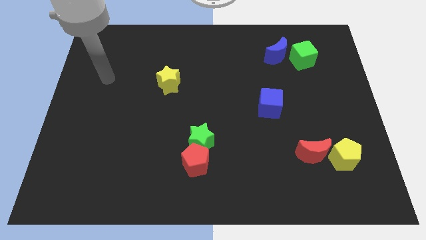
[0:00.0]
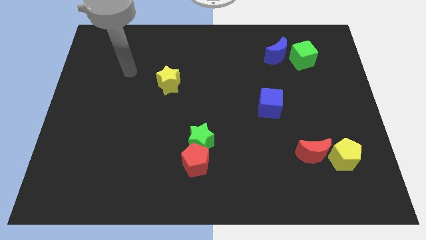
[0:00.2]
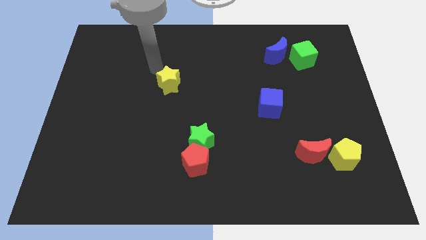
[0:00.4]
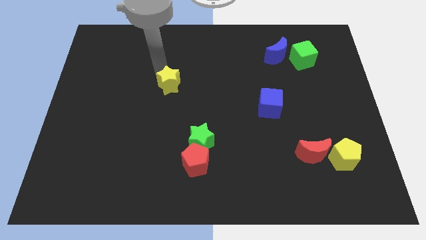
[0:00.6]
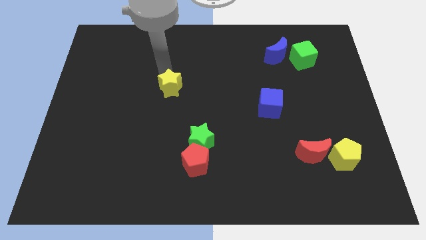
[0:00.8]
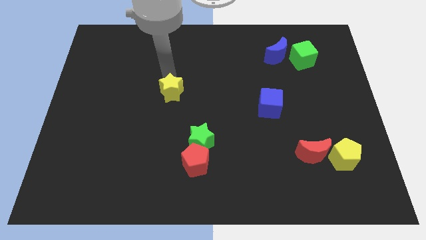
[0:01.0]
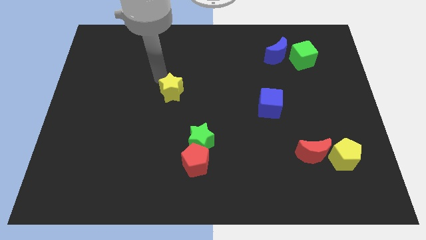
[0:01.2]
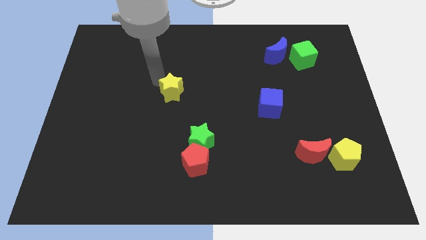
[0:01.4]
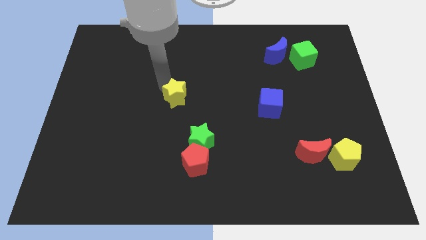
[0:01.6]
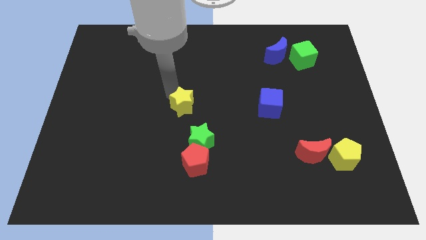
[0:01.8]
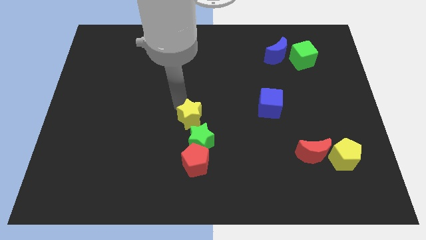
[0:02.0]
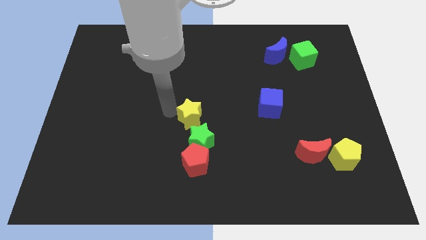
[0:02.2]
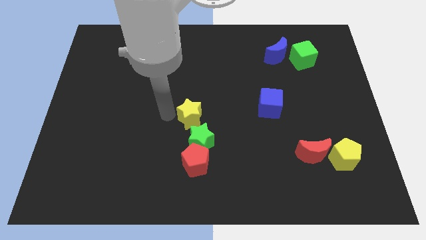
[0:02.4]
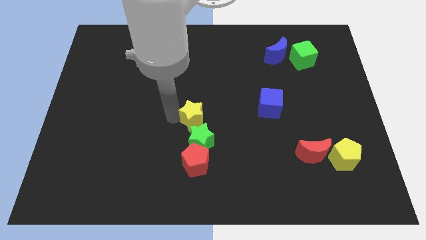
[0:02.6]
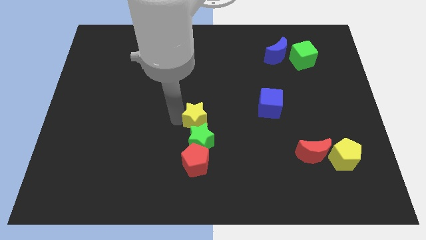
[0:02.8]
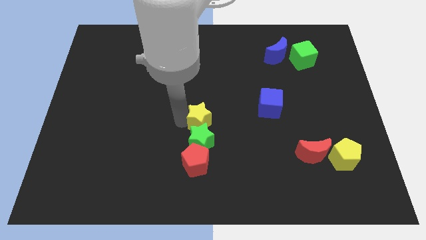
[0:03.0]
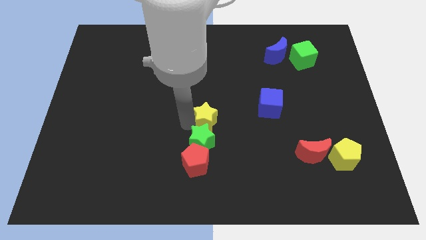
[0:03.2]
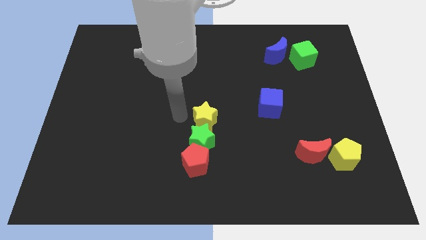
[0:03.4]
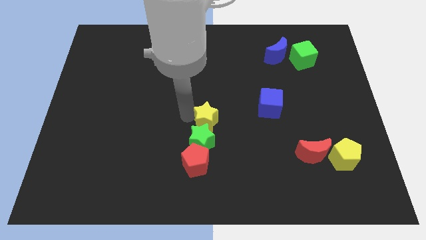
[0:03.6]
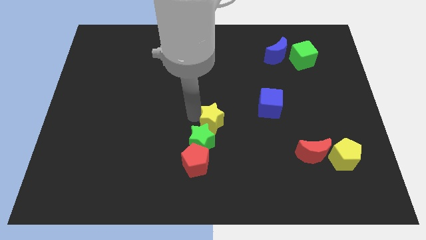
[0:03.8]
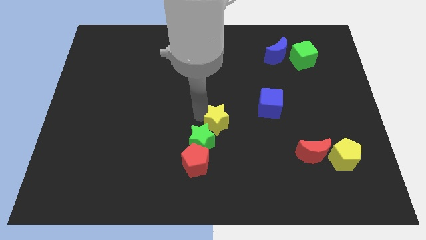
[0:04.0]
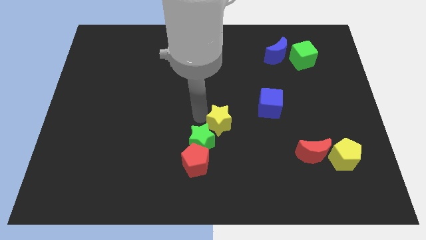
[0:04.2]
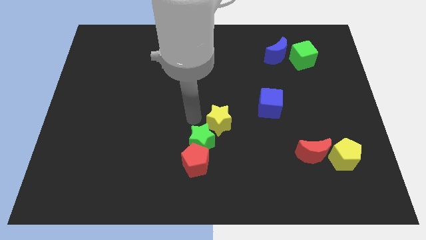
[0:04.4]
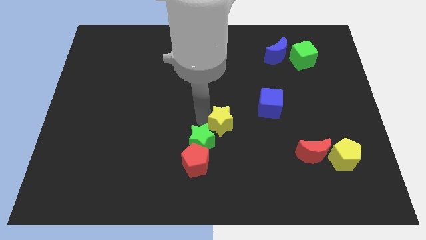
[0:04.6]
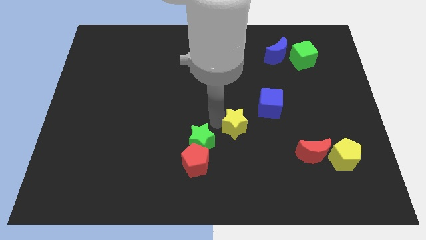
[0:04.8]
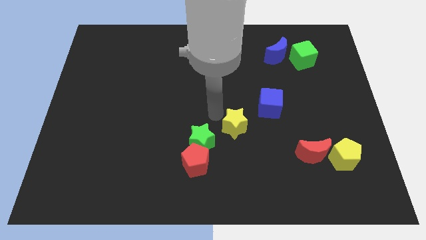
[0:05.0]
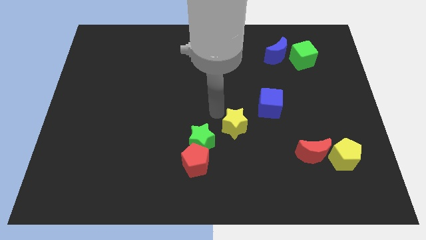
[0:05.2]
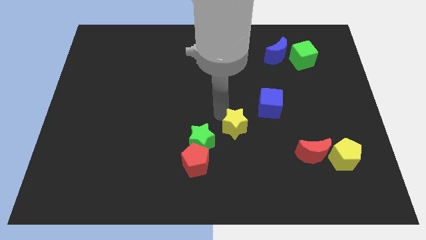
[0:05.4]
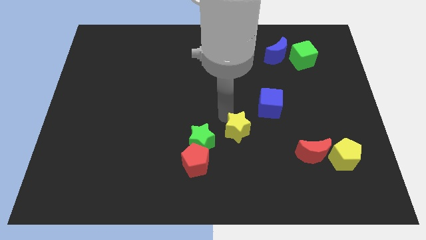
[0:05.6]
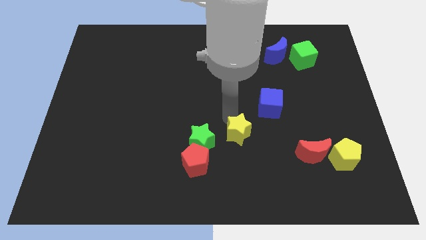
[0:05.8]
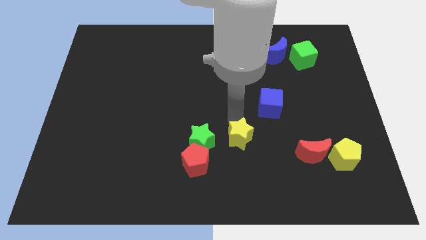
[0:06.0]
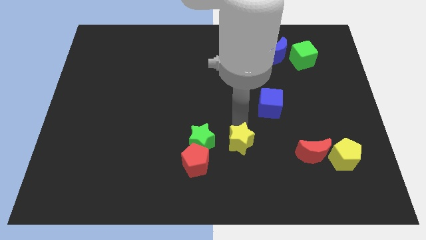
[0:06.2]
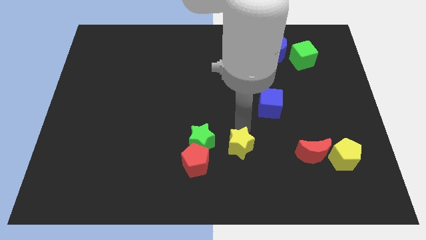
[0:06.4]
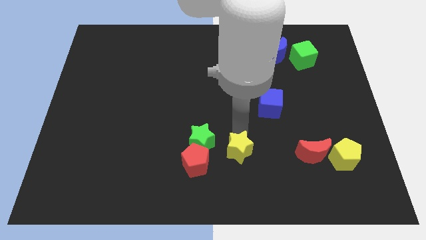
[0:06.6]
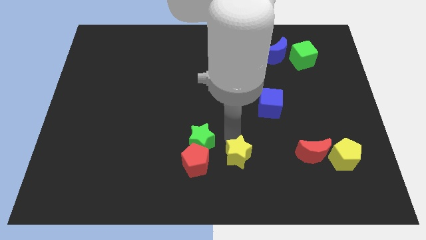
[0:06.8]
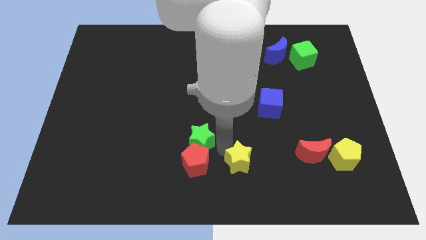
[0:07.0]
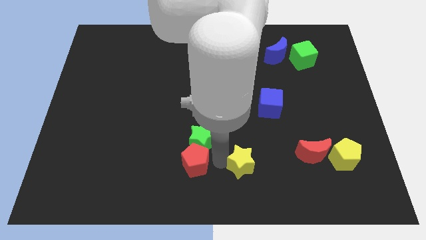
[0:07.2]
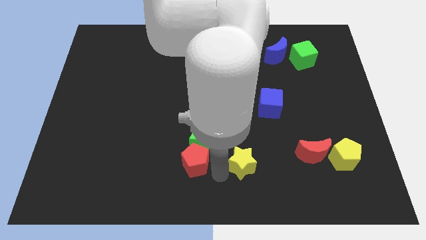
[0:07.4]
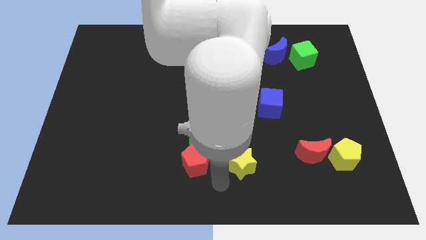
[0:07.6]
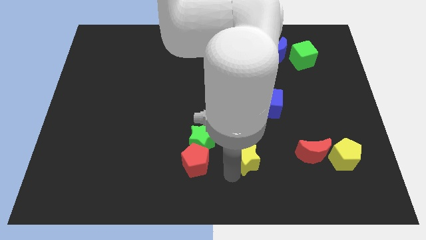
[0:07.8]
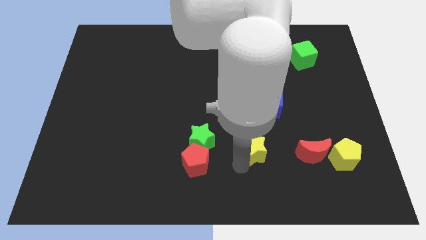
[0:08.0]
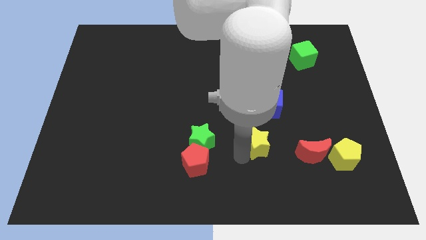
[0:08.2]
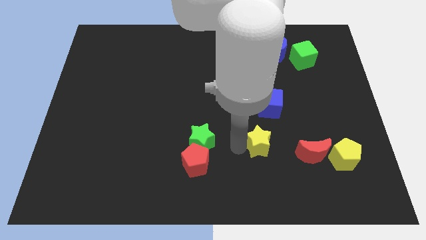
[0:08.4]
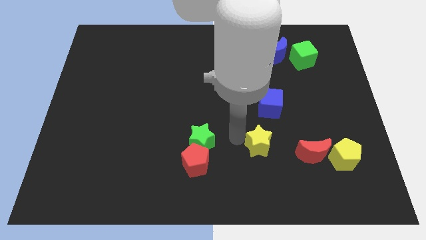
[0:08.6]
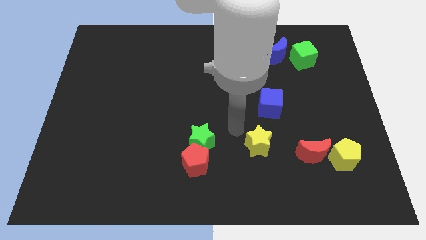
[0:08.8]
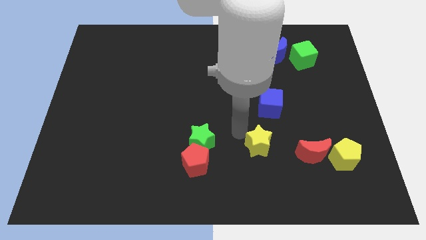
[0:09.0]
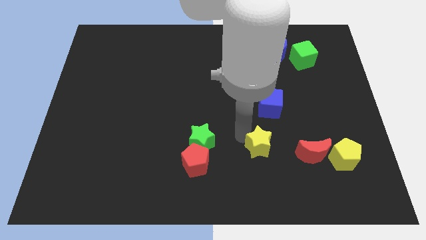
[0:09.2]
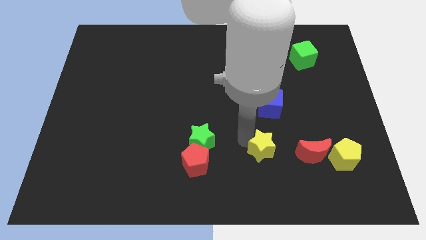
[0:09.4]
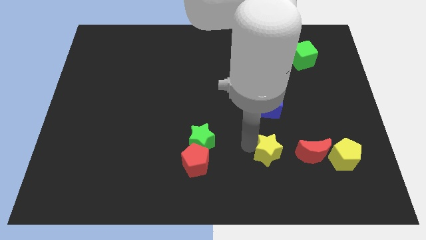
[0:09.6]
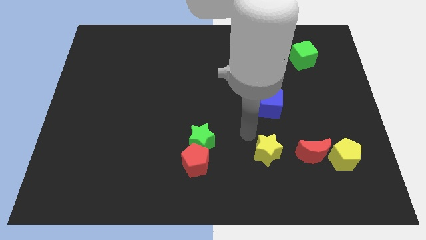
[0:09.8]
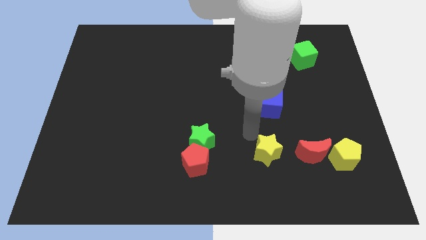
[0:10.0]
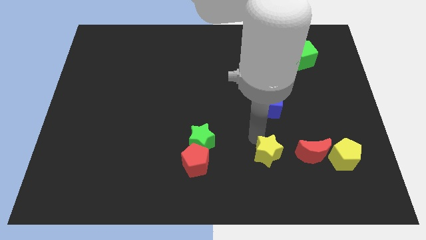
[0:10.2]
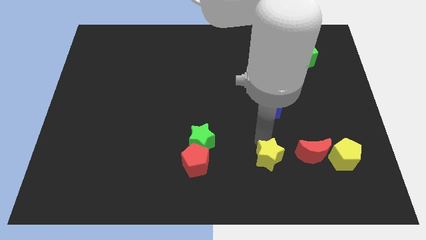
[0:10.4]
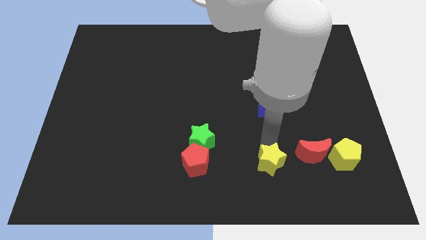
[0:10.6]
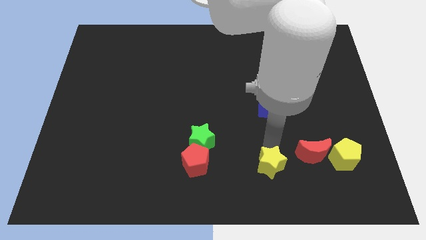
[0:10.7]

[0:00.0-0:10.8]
put the yellow star to the bottom left of the red moon

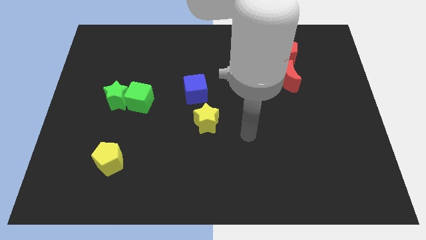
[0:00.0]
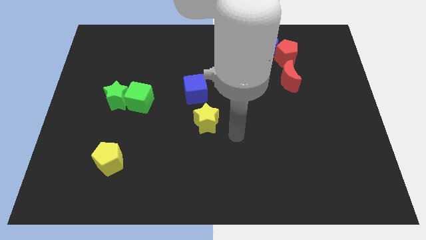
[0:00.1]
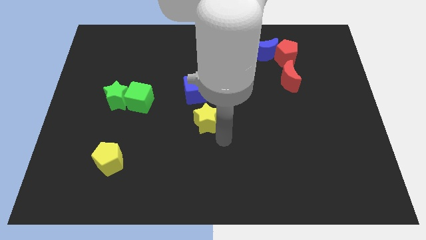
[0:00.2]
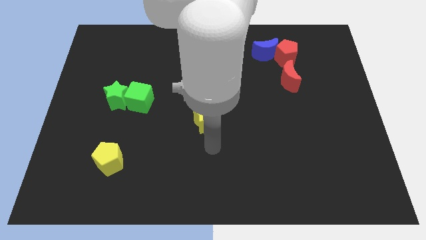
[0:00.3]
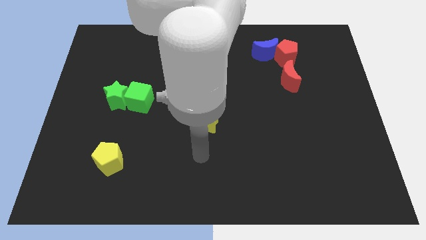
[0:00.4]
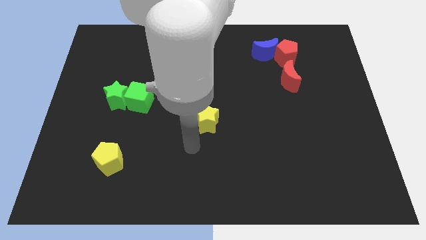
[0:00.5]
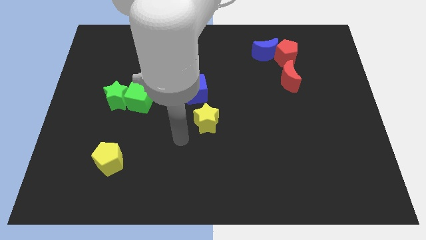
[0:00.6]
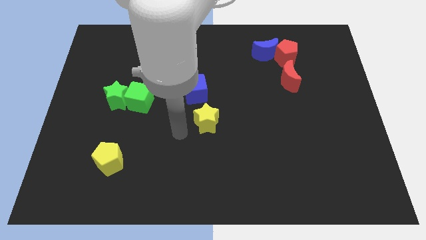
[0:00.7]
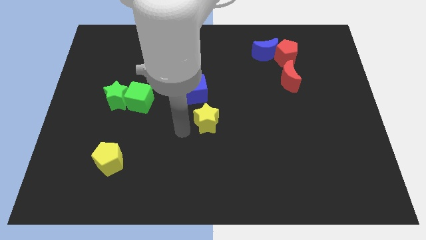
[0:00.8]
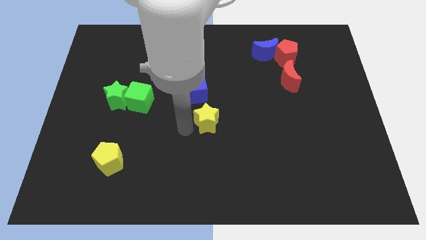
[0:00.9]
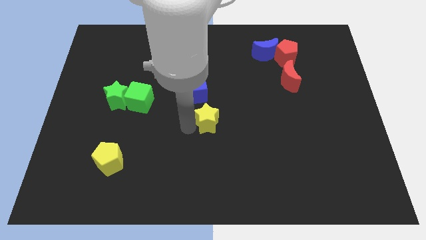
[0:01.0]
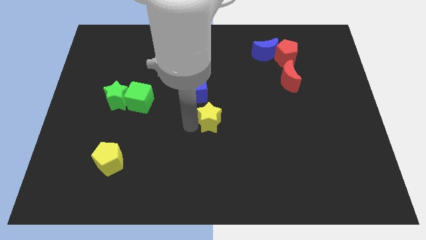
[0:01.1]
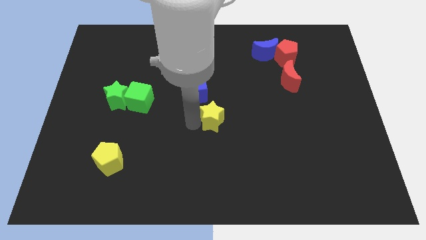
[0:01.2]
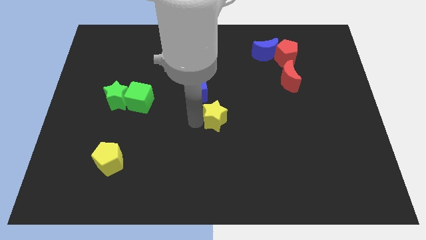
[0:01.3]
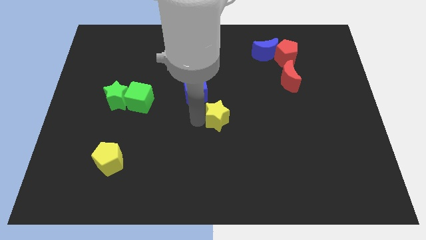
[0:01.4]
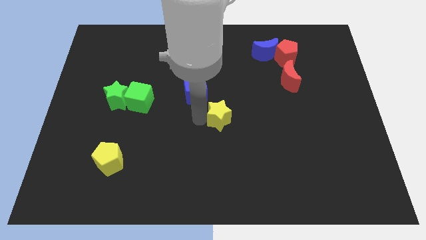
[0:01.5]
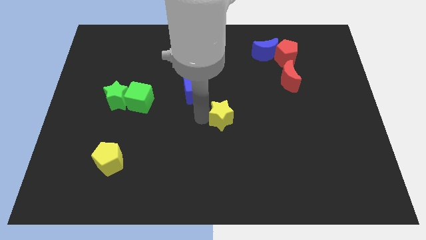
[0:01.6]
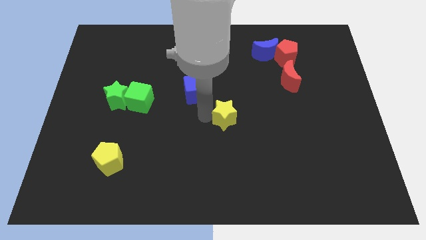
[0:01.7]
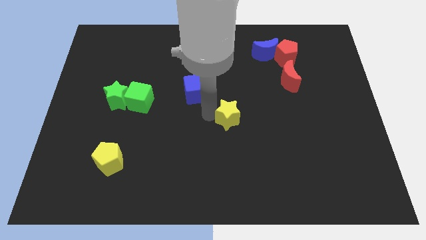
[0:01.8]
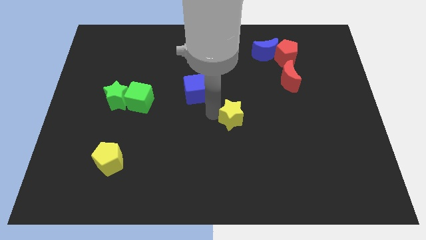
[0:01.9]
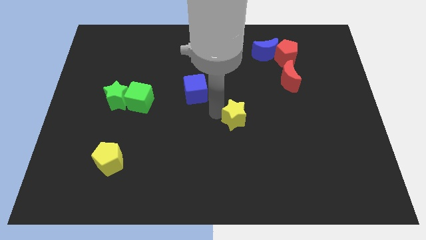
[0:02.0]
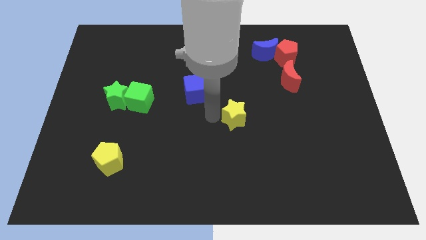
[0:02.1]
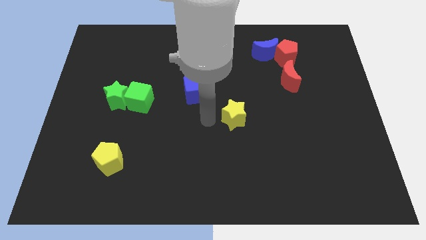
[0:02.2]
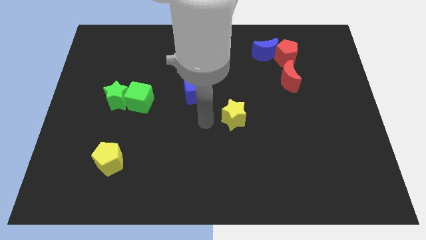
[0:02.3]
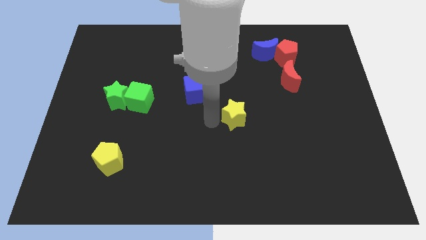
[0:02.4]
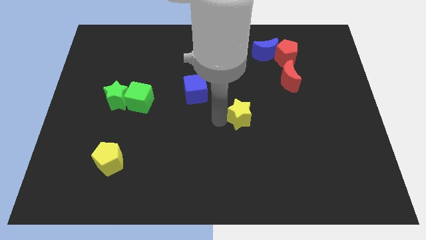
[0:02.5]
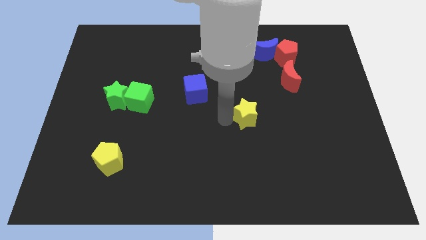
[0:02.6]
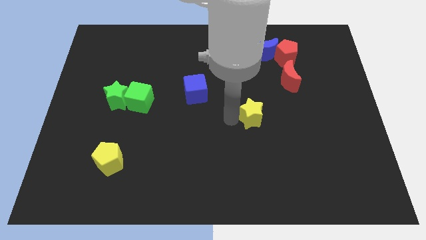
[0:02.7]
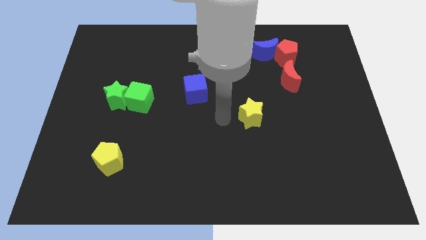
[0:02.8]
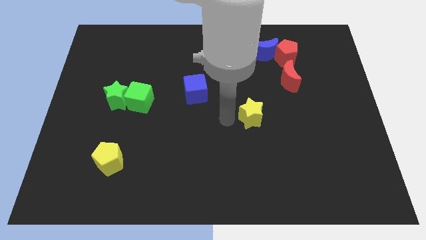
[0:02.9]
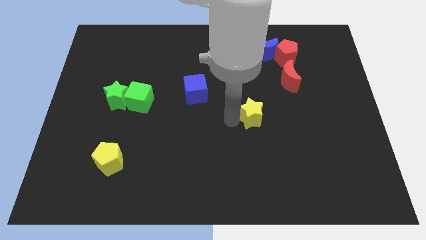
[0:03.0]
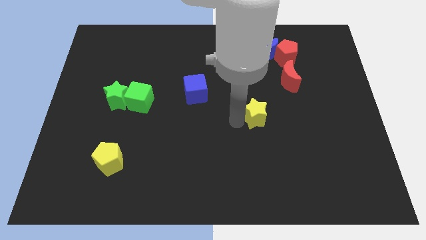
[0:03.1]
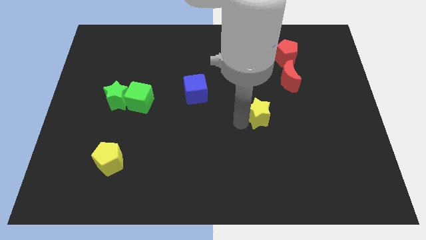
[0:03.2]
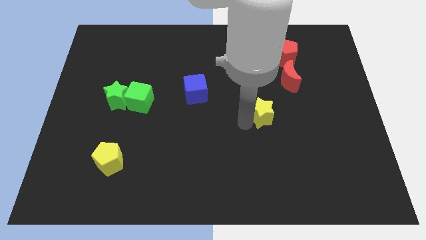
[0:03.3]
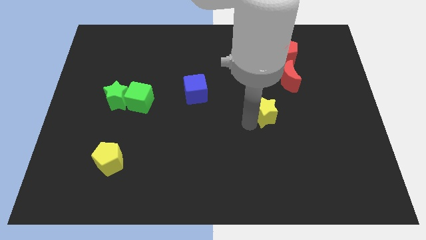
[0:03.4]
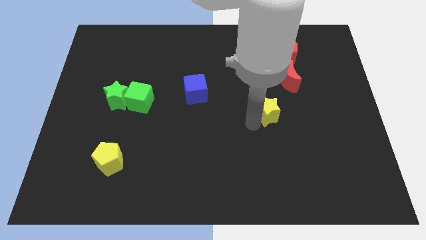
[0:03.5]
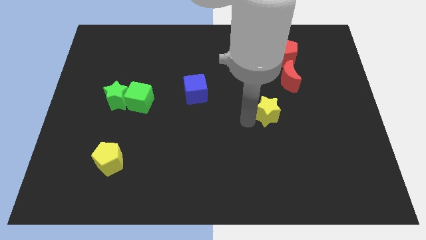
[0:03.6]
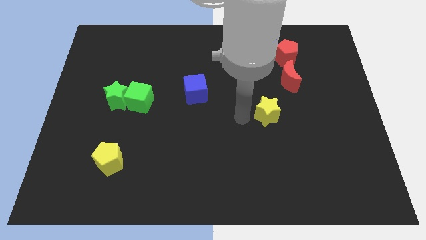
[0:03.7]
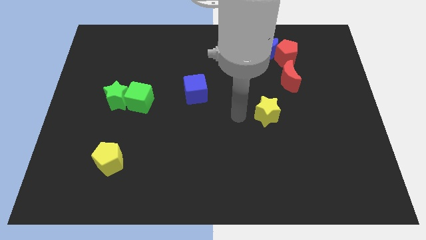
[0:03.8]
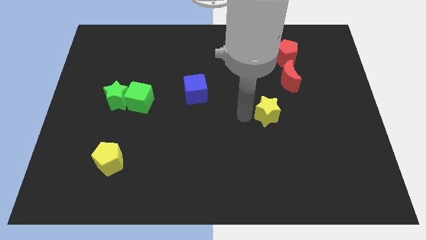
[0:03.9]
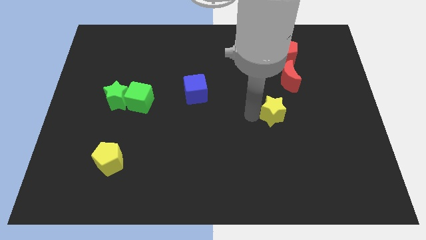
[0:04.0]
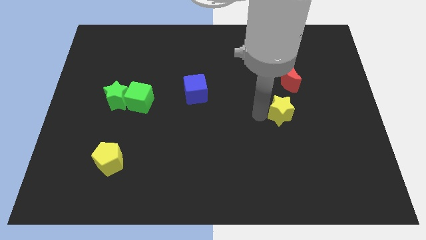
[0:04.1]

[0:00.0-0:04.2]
push the yellow star to the bottom side of the red moon
